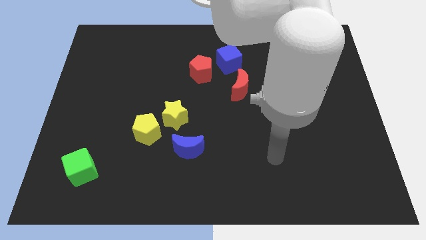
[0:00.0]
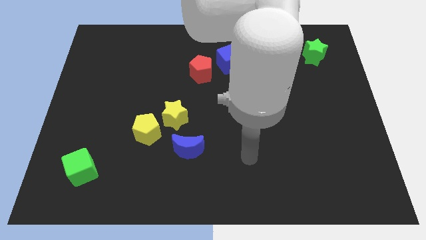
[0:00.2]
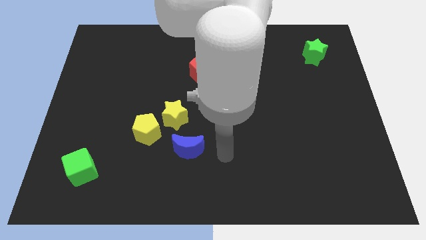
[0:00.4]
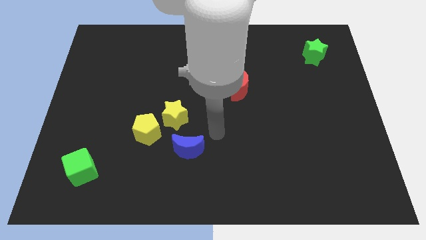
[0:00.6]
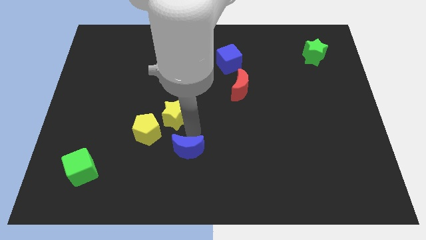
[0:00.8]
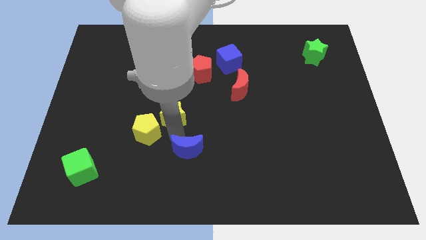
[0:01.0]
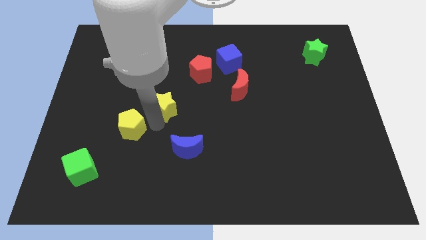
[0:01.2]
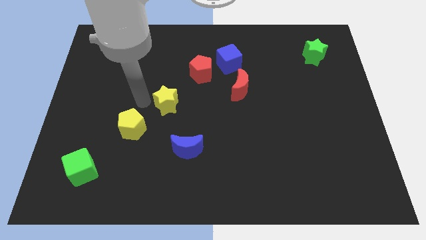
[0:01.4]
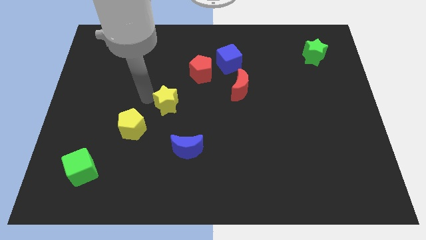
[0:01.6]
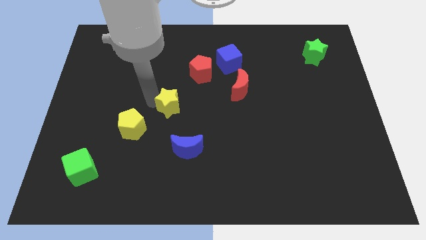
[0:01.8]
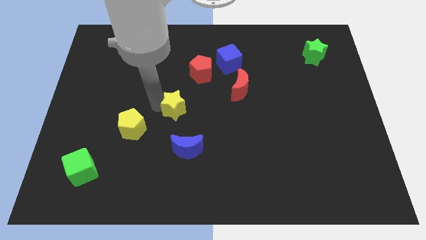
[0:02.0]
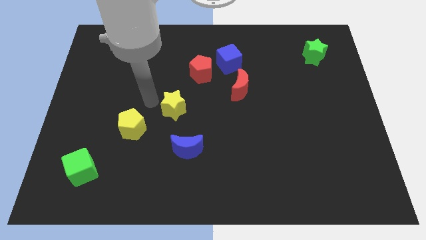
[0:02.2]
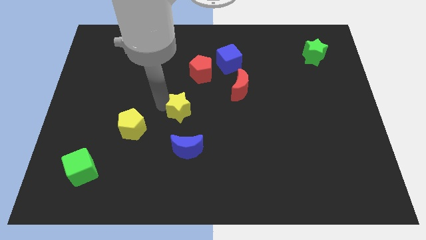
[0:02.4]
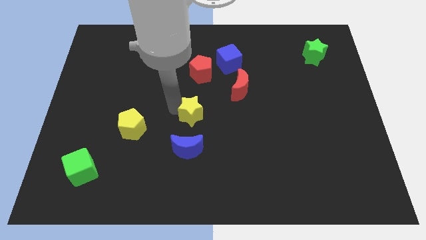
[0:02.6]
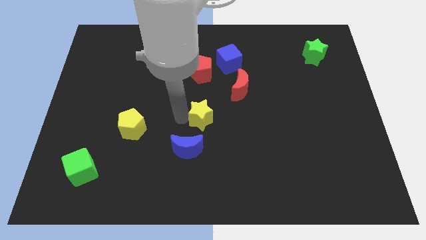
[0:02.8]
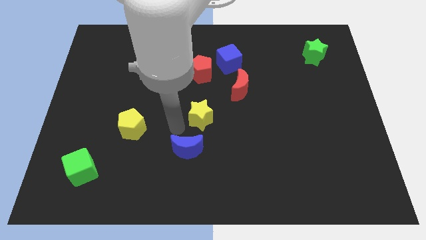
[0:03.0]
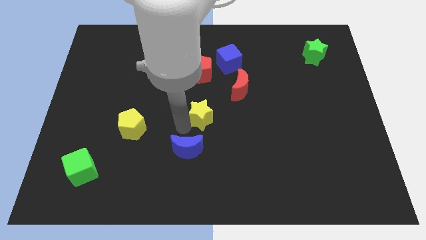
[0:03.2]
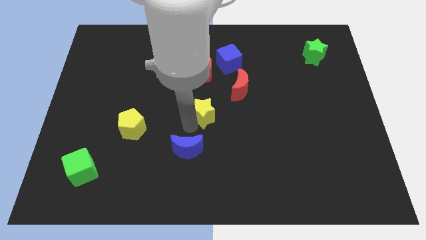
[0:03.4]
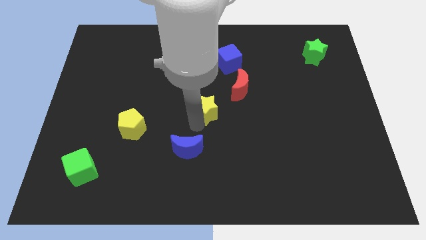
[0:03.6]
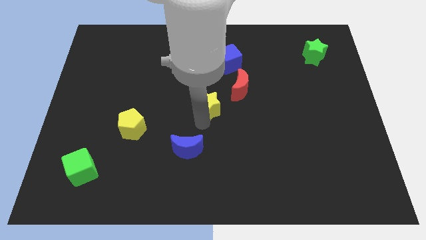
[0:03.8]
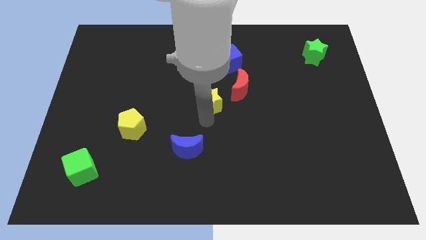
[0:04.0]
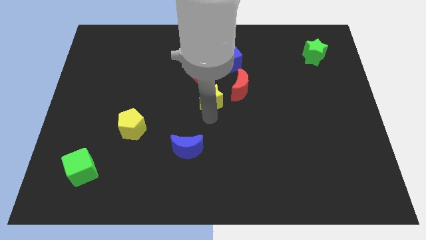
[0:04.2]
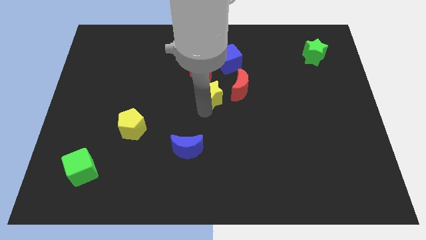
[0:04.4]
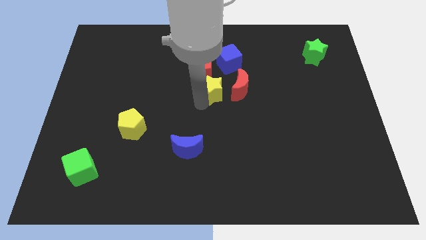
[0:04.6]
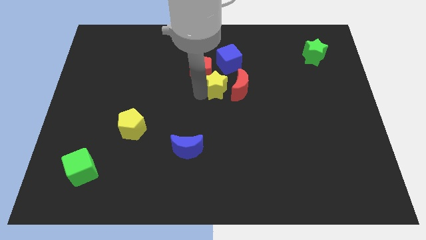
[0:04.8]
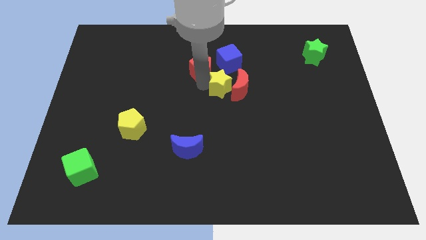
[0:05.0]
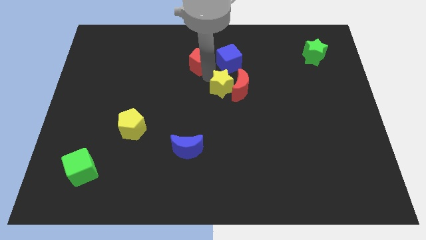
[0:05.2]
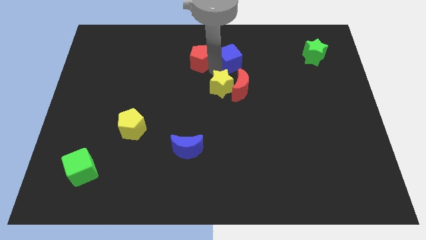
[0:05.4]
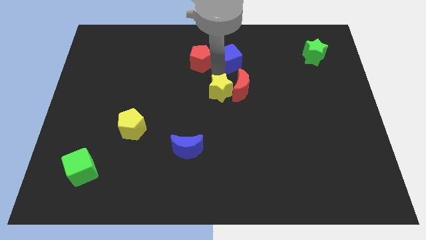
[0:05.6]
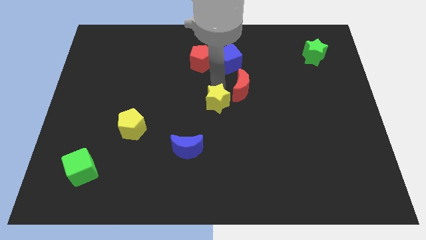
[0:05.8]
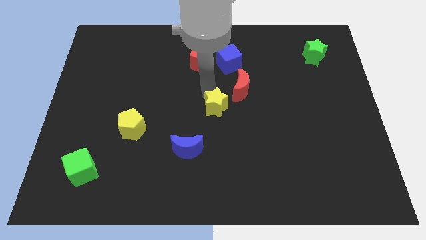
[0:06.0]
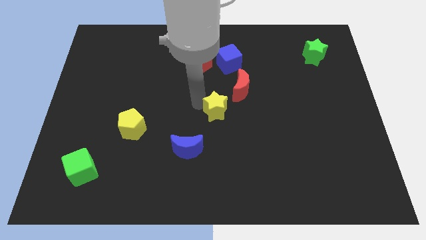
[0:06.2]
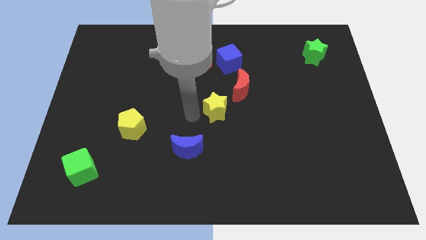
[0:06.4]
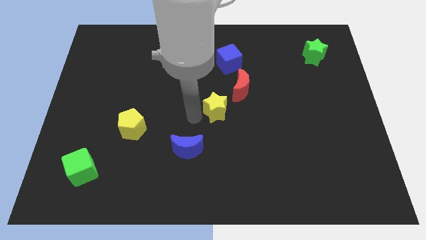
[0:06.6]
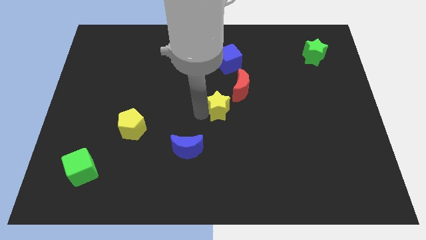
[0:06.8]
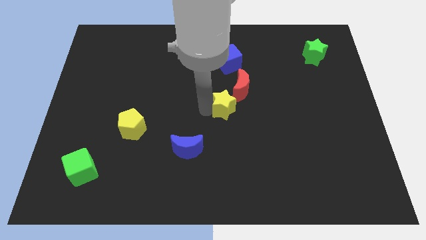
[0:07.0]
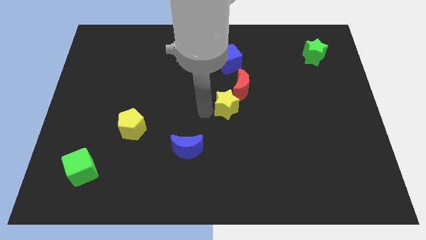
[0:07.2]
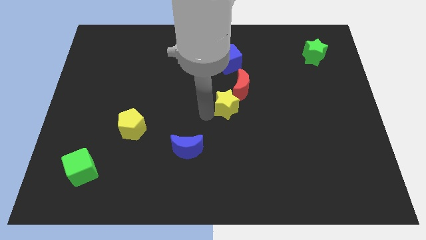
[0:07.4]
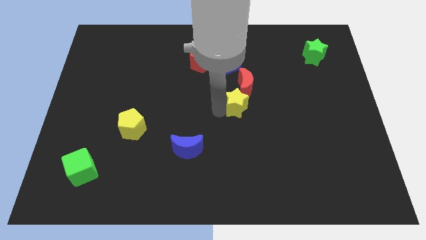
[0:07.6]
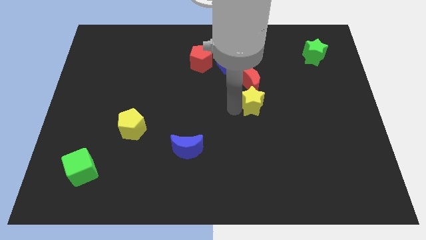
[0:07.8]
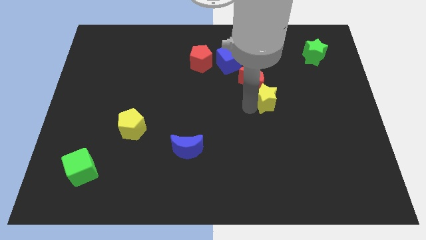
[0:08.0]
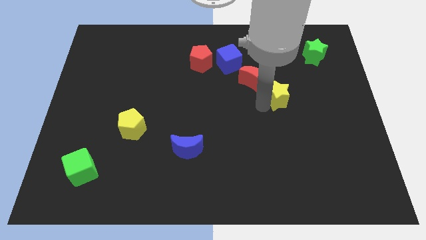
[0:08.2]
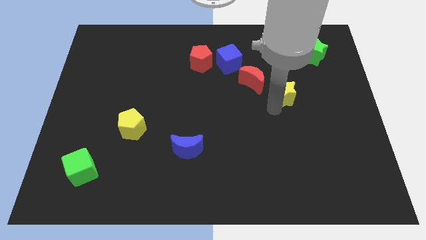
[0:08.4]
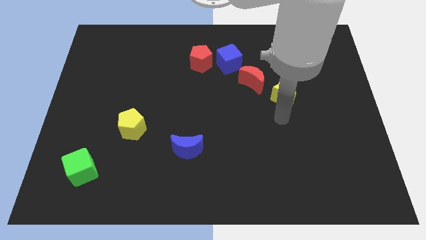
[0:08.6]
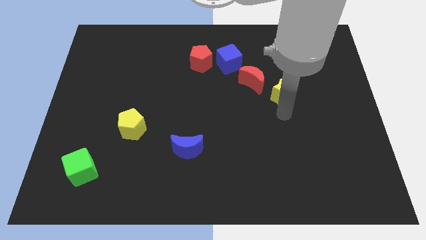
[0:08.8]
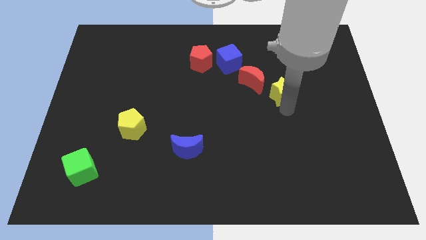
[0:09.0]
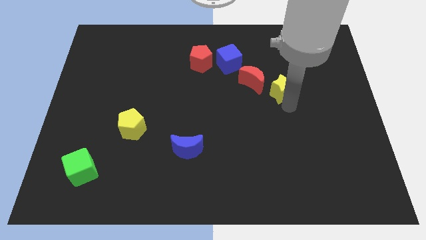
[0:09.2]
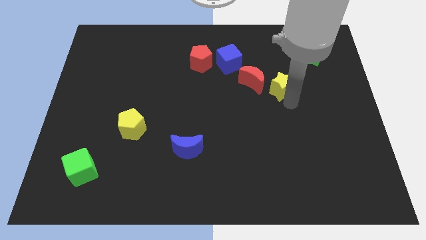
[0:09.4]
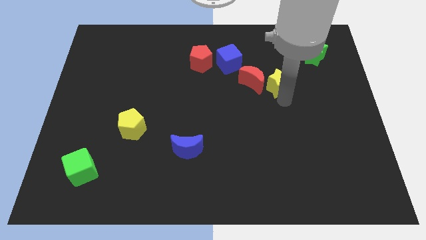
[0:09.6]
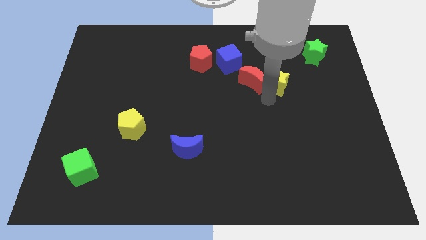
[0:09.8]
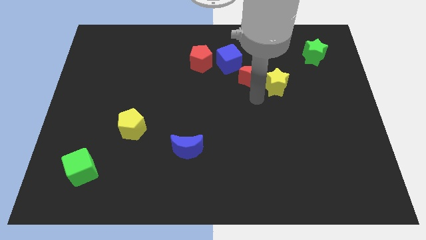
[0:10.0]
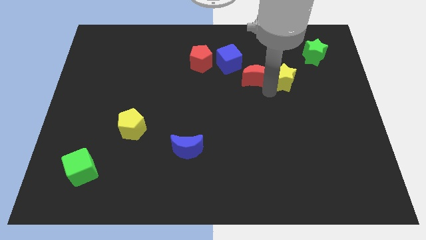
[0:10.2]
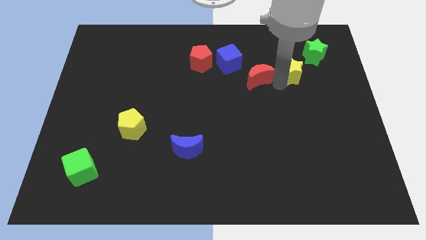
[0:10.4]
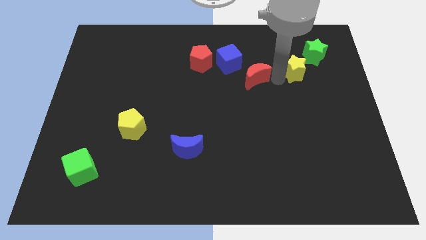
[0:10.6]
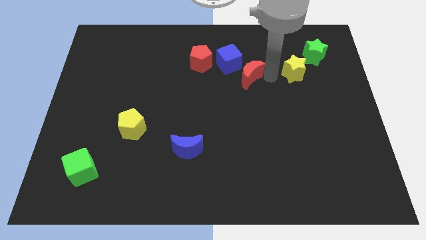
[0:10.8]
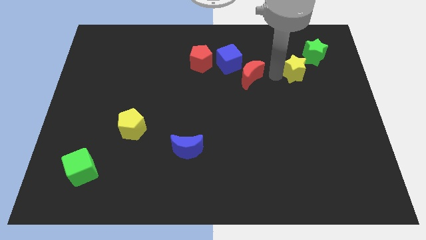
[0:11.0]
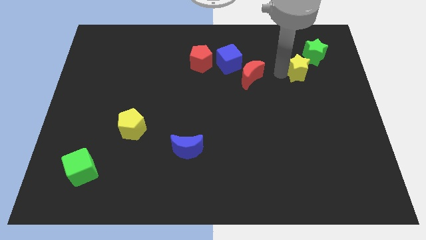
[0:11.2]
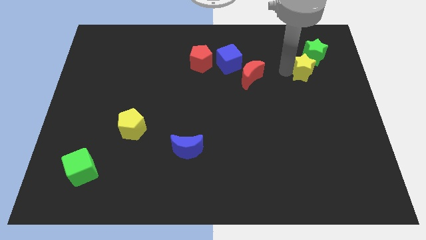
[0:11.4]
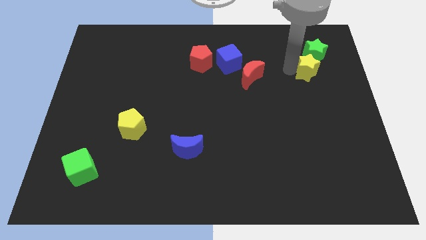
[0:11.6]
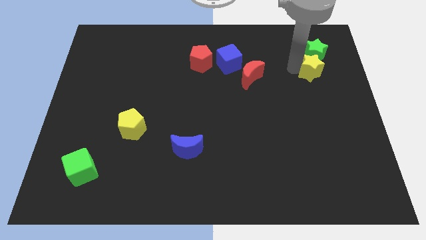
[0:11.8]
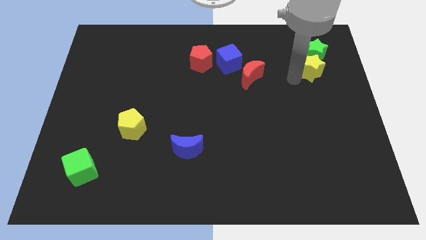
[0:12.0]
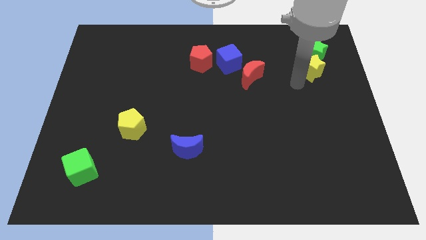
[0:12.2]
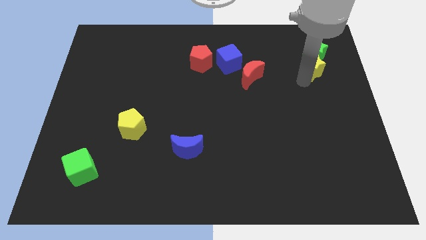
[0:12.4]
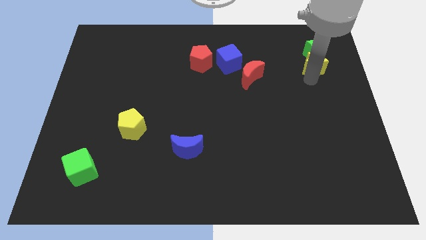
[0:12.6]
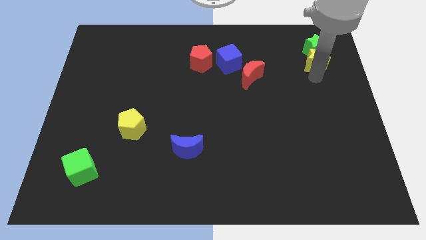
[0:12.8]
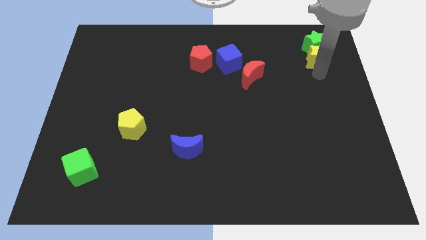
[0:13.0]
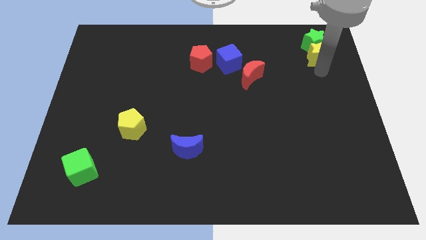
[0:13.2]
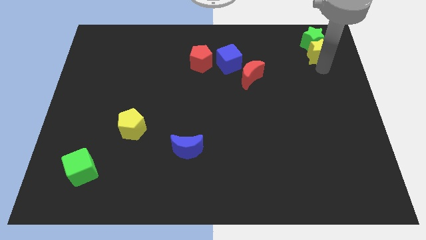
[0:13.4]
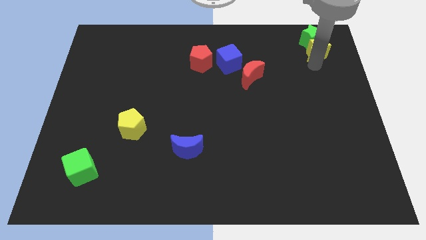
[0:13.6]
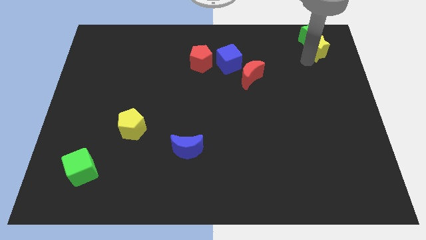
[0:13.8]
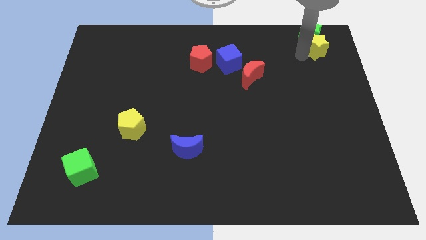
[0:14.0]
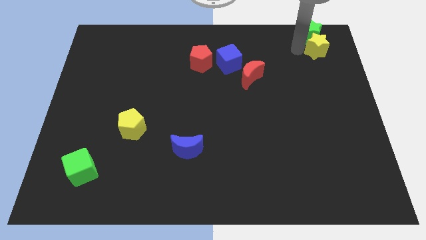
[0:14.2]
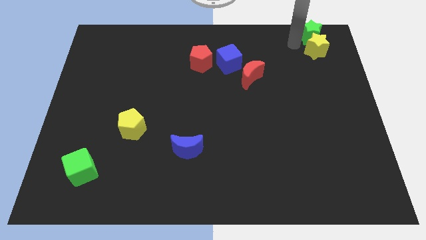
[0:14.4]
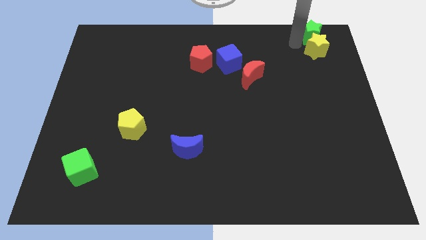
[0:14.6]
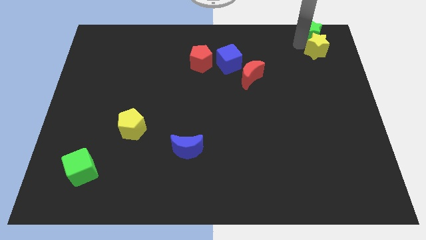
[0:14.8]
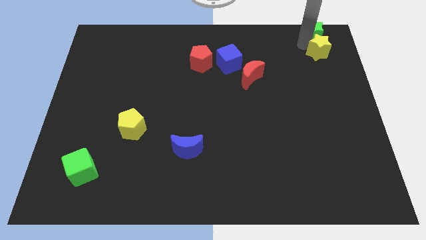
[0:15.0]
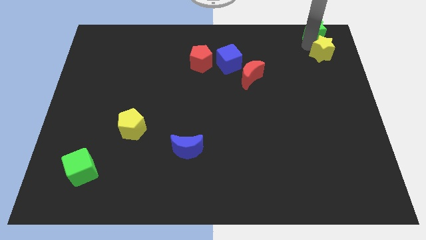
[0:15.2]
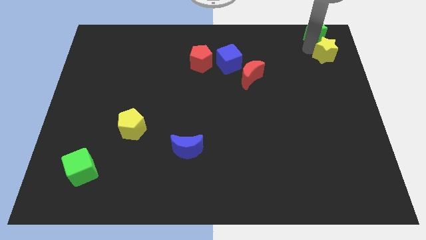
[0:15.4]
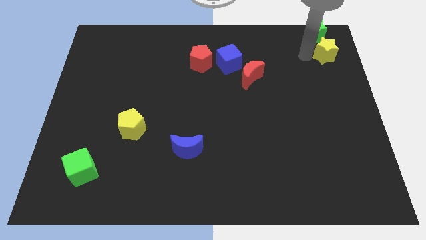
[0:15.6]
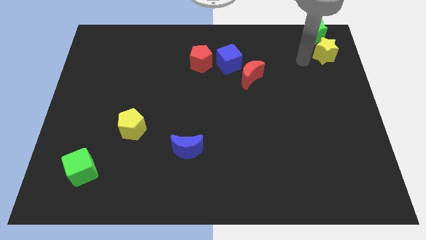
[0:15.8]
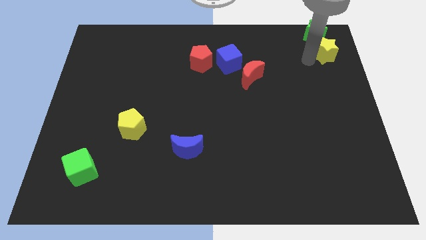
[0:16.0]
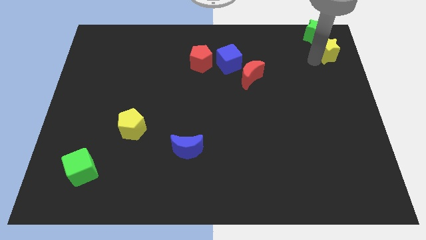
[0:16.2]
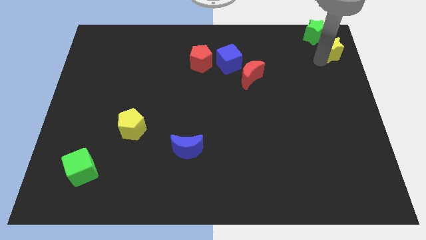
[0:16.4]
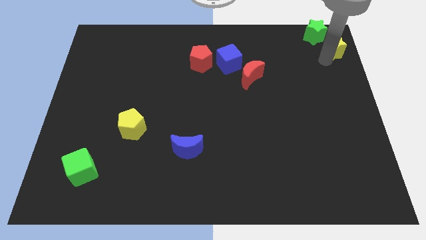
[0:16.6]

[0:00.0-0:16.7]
slide the yellow star to the top right corner
